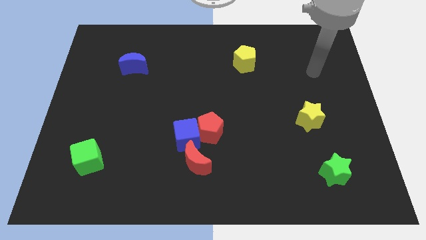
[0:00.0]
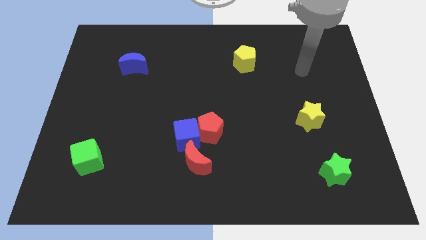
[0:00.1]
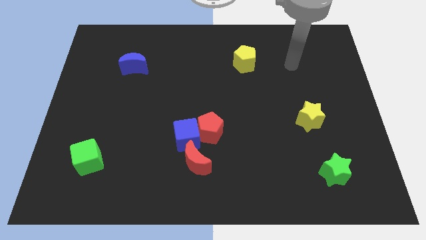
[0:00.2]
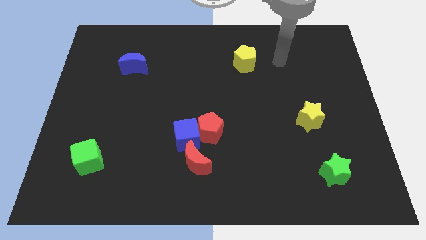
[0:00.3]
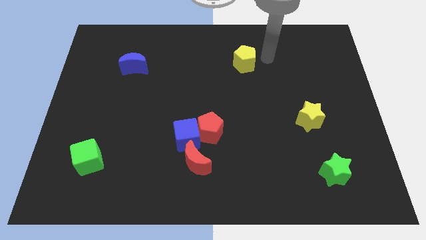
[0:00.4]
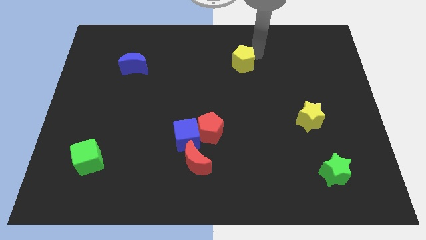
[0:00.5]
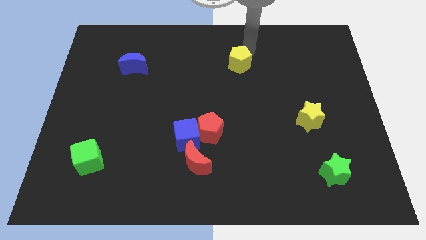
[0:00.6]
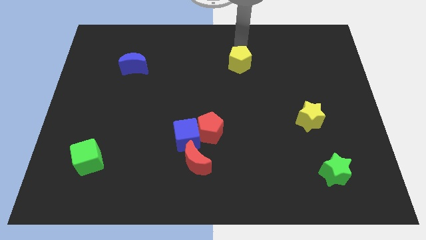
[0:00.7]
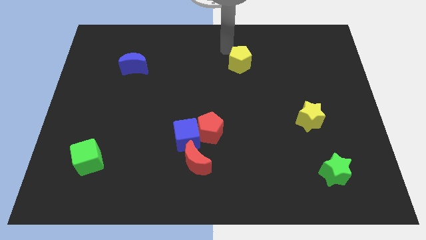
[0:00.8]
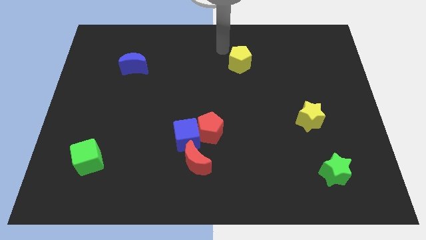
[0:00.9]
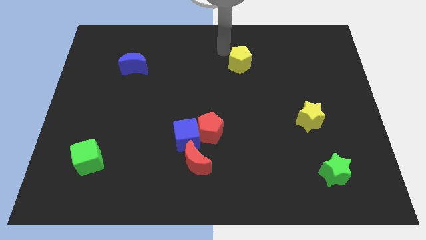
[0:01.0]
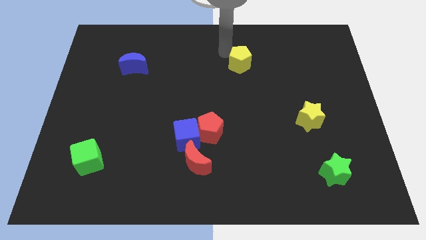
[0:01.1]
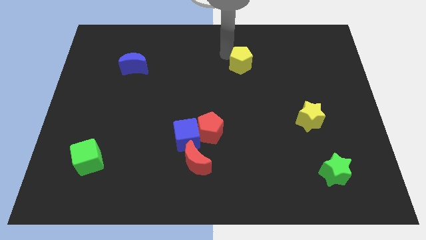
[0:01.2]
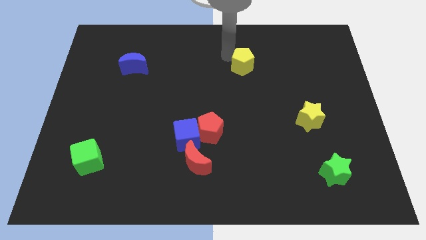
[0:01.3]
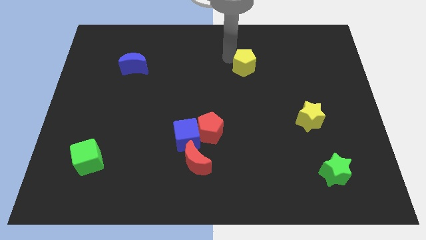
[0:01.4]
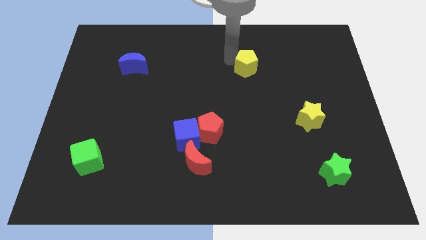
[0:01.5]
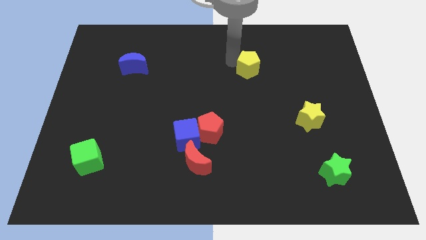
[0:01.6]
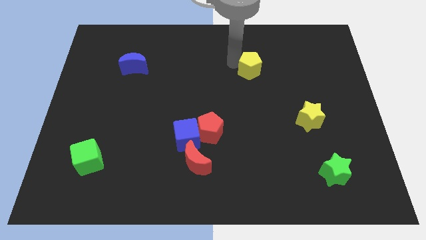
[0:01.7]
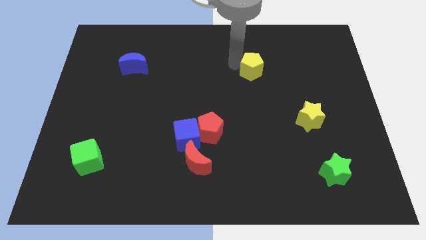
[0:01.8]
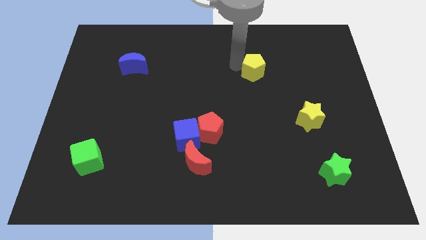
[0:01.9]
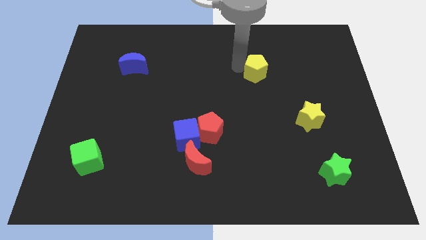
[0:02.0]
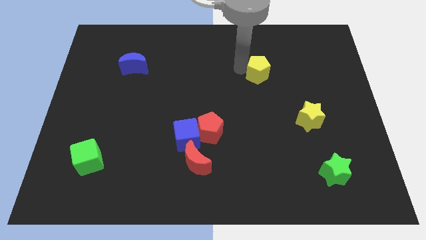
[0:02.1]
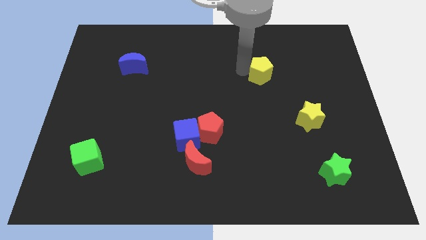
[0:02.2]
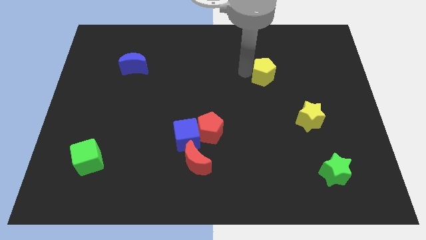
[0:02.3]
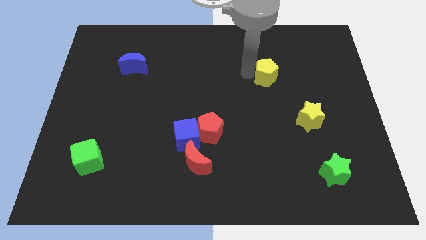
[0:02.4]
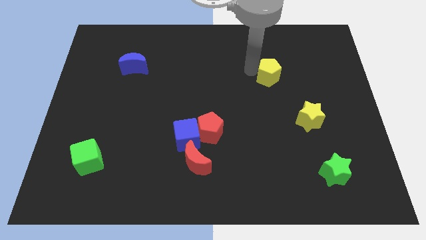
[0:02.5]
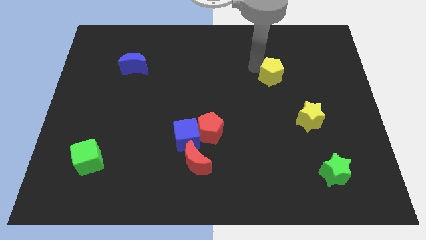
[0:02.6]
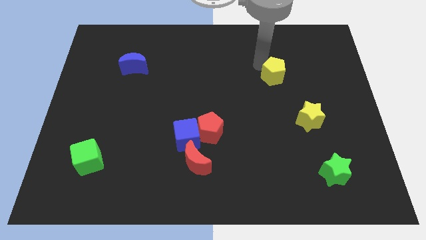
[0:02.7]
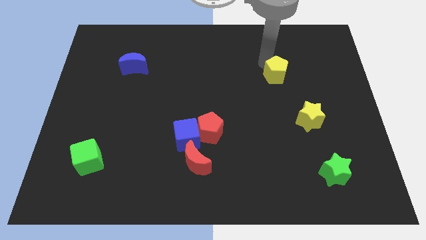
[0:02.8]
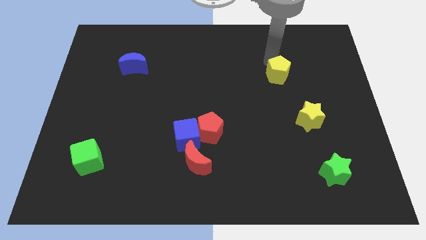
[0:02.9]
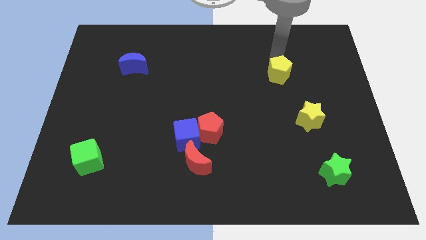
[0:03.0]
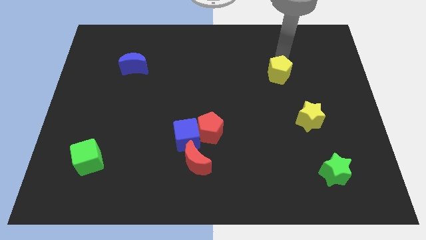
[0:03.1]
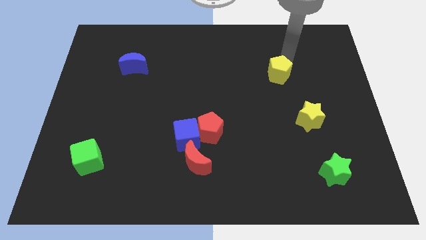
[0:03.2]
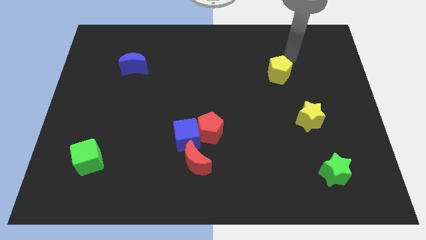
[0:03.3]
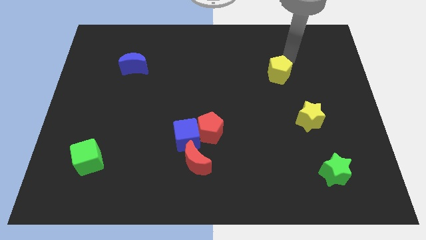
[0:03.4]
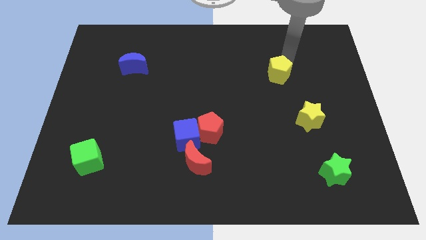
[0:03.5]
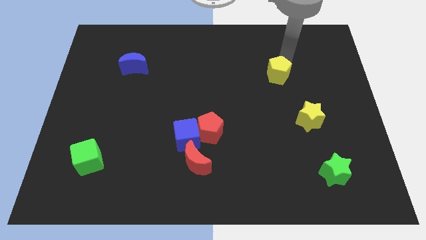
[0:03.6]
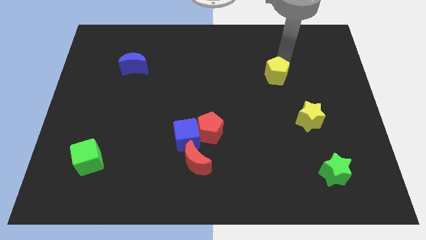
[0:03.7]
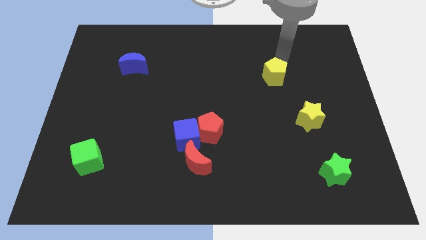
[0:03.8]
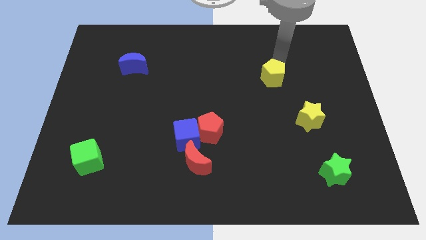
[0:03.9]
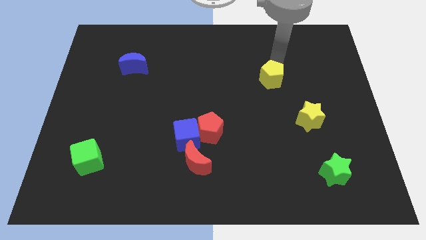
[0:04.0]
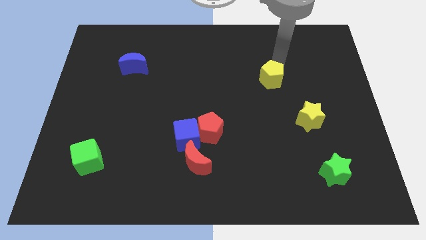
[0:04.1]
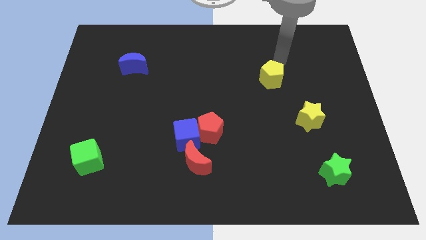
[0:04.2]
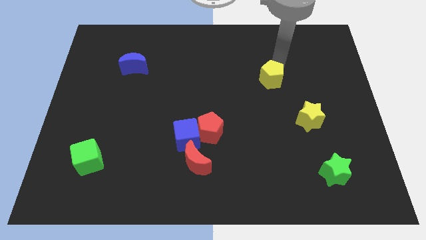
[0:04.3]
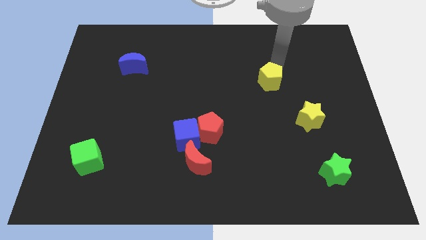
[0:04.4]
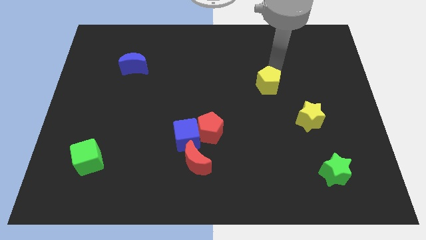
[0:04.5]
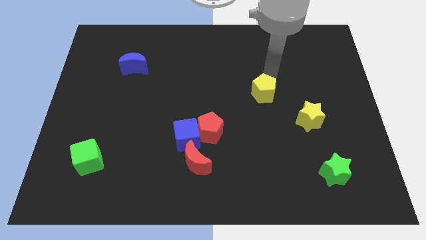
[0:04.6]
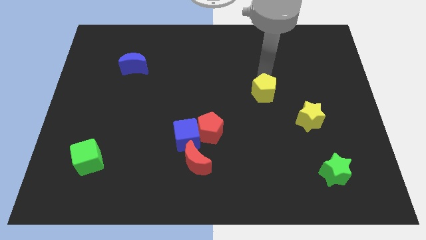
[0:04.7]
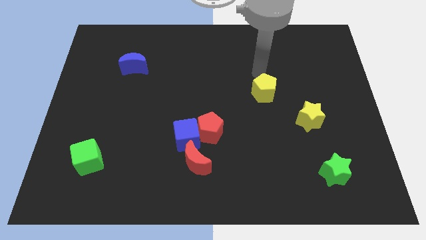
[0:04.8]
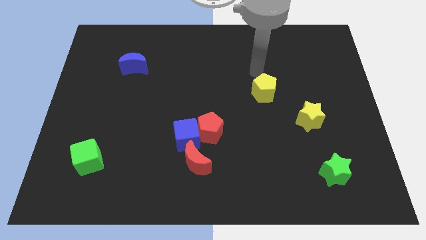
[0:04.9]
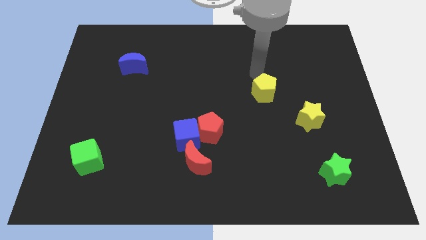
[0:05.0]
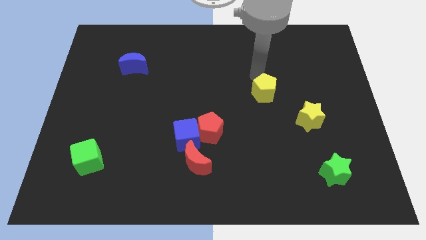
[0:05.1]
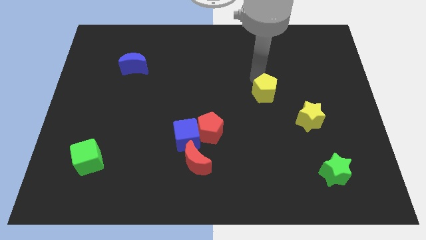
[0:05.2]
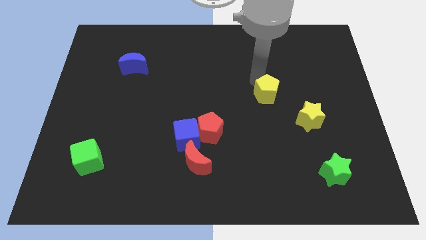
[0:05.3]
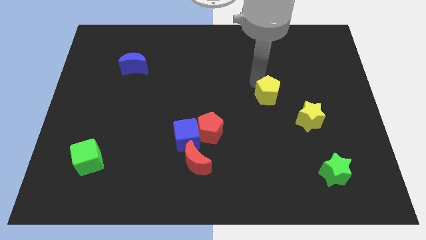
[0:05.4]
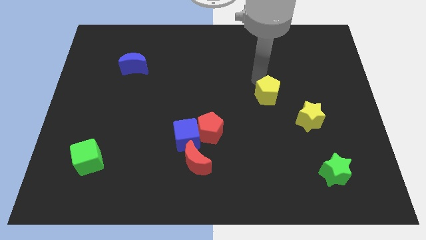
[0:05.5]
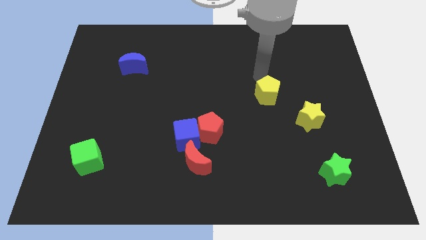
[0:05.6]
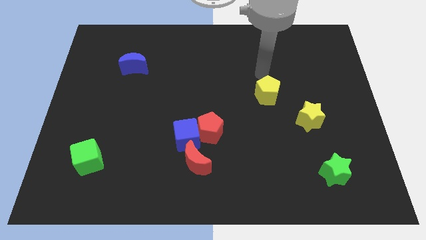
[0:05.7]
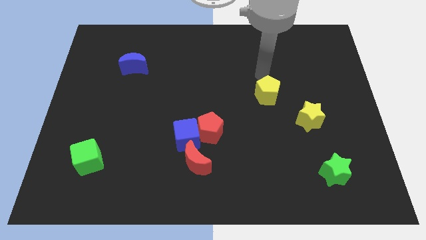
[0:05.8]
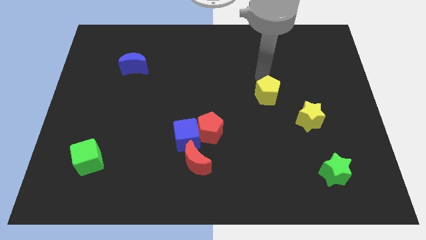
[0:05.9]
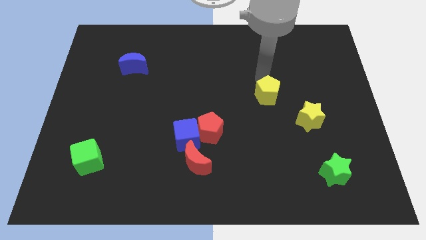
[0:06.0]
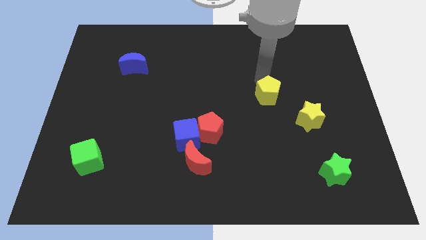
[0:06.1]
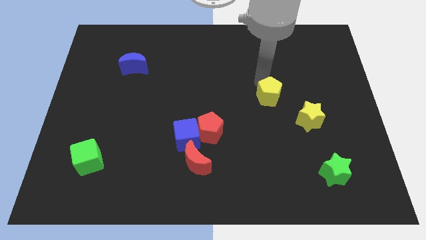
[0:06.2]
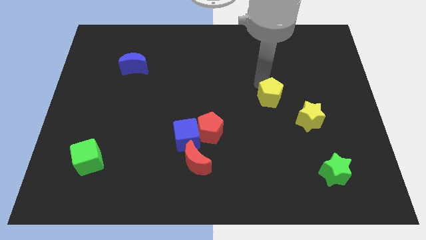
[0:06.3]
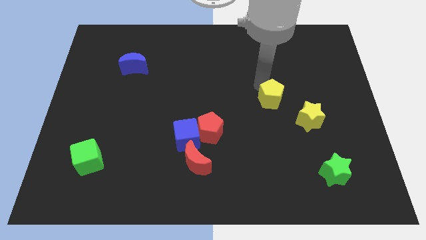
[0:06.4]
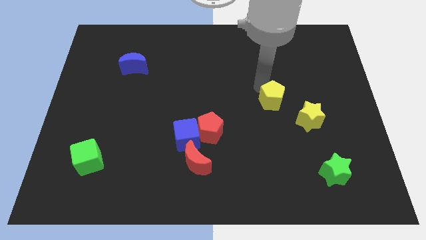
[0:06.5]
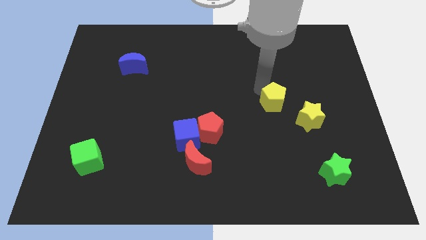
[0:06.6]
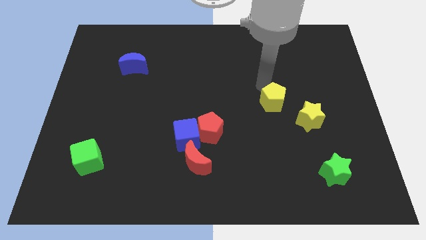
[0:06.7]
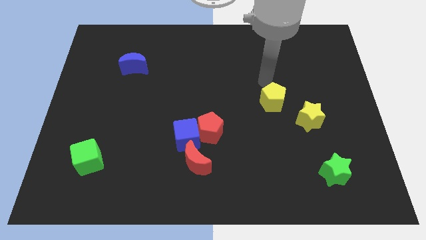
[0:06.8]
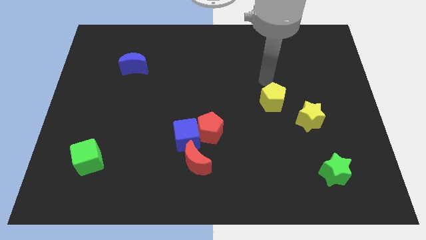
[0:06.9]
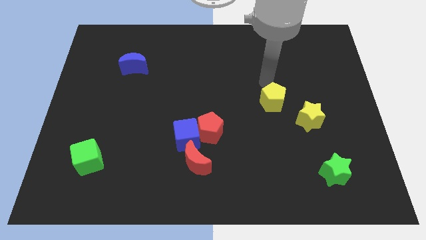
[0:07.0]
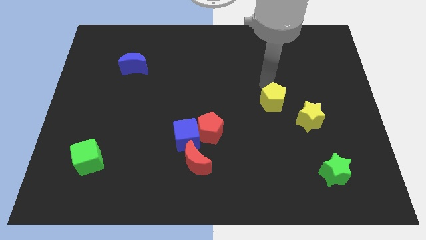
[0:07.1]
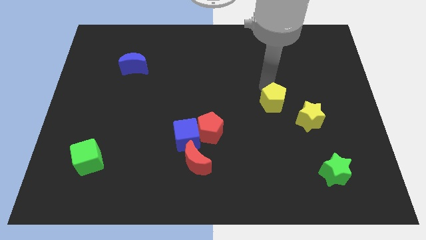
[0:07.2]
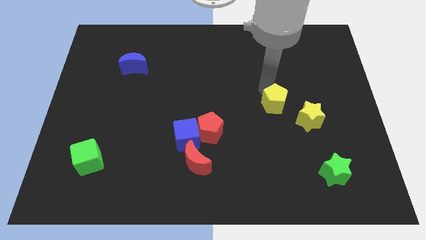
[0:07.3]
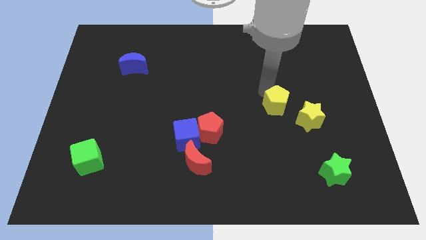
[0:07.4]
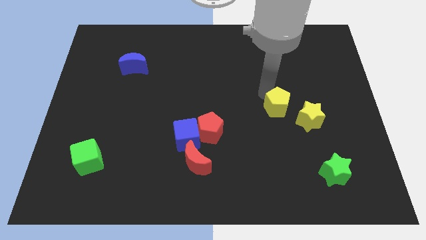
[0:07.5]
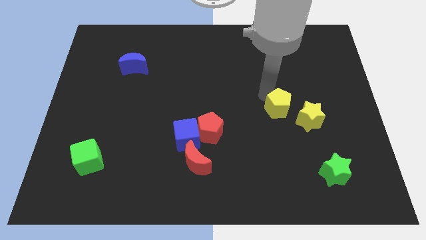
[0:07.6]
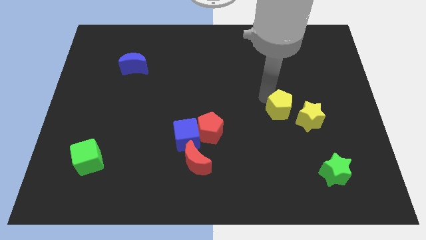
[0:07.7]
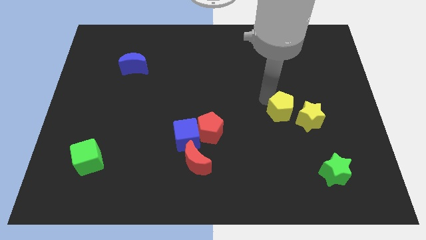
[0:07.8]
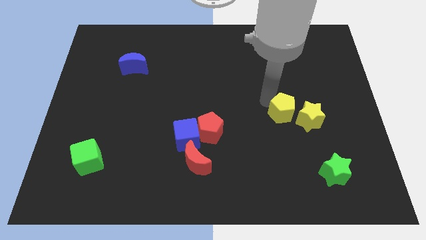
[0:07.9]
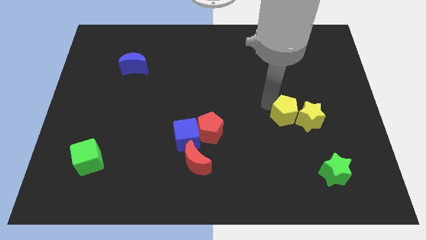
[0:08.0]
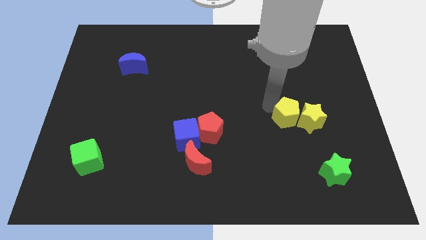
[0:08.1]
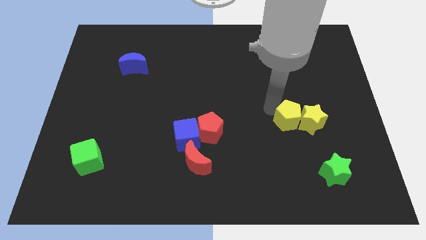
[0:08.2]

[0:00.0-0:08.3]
slide the yellow pentagon to the bottom left side of the yellow star
